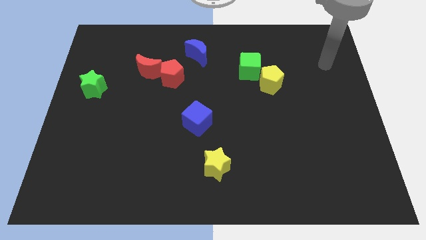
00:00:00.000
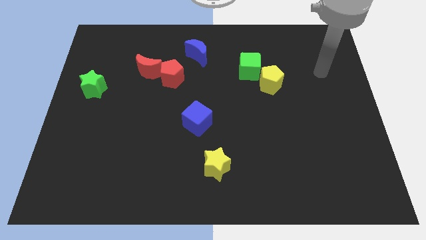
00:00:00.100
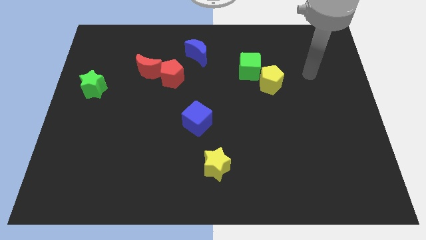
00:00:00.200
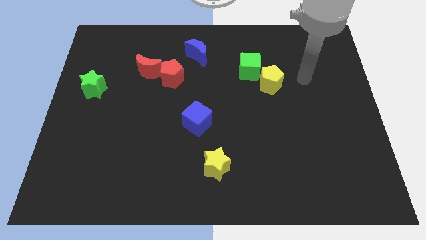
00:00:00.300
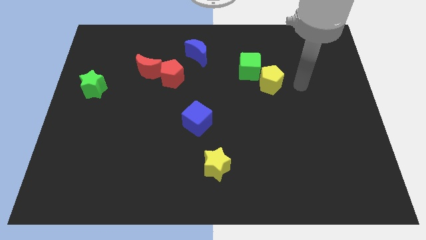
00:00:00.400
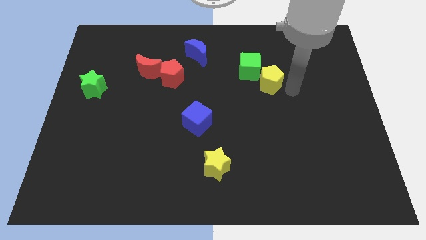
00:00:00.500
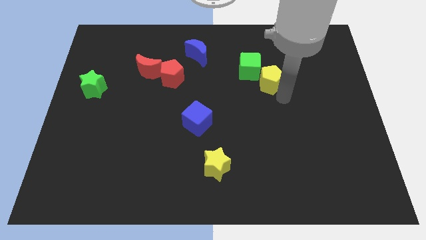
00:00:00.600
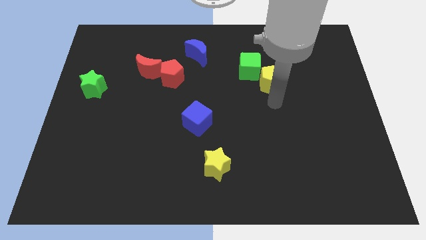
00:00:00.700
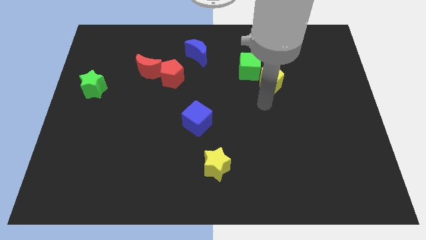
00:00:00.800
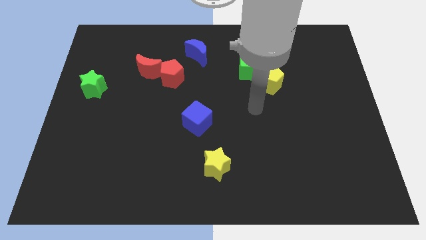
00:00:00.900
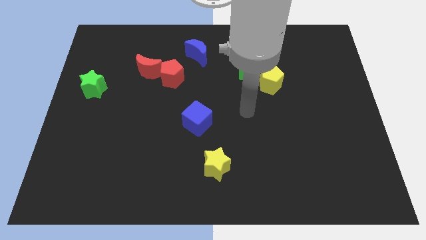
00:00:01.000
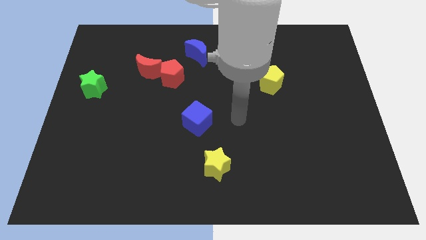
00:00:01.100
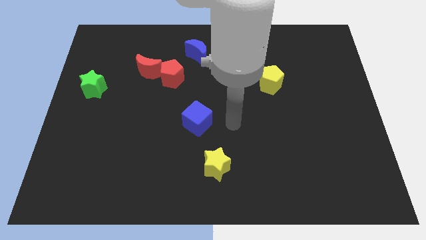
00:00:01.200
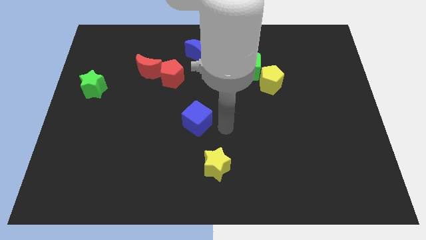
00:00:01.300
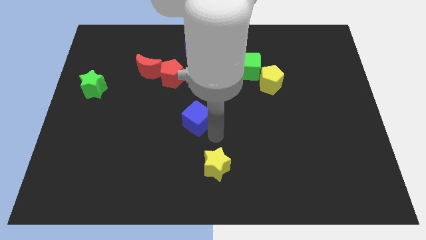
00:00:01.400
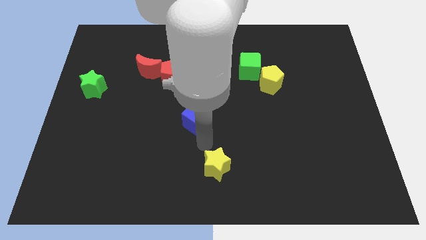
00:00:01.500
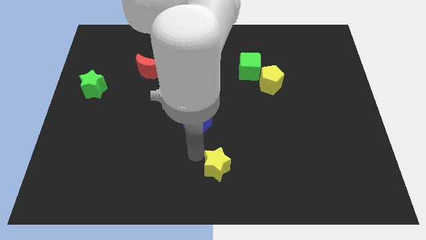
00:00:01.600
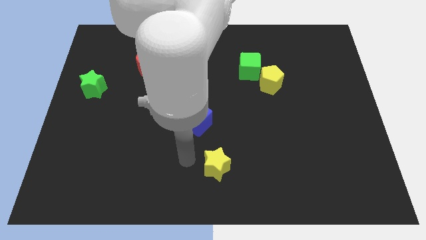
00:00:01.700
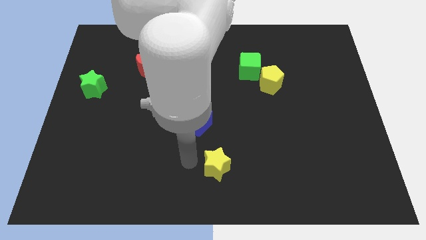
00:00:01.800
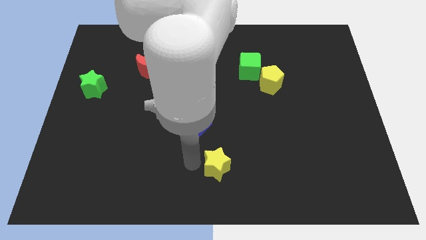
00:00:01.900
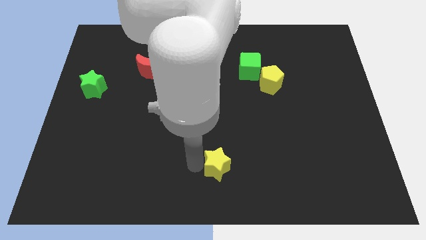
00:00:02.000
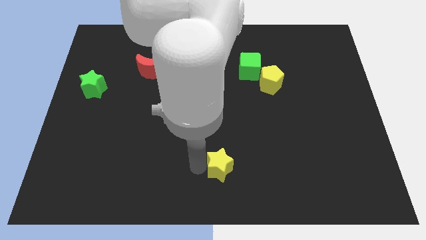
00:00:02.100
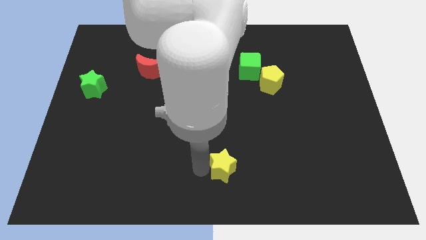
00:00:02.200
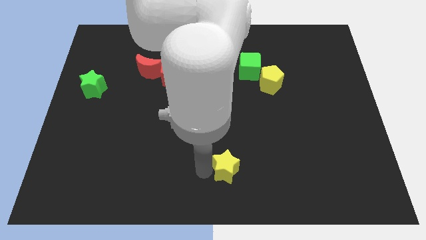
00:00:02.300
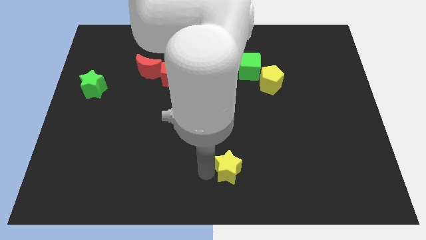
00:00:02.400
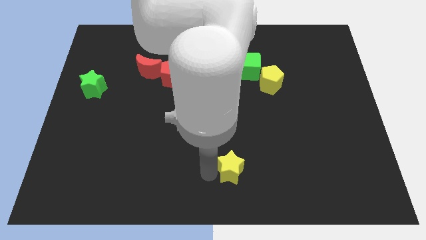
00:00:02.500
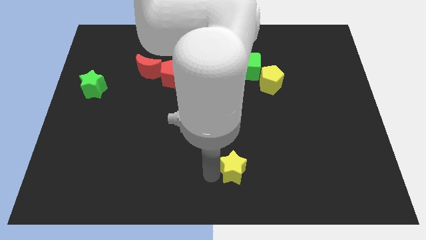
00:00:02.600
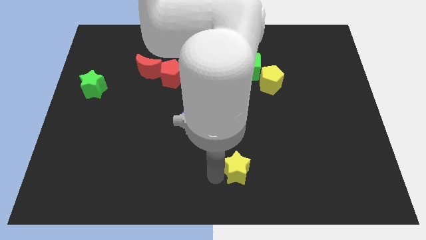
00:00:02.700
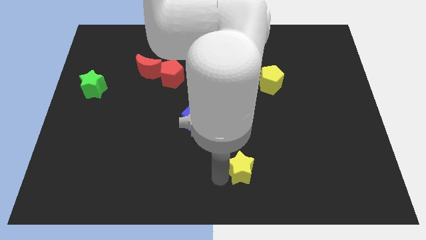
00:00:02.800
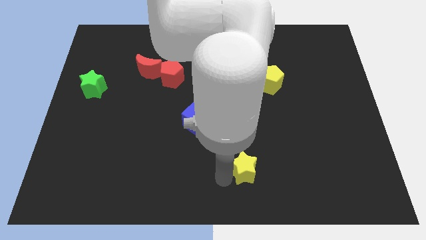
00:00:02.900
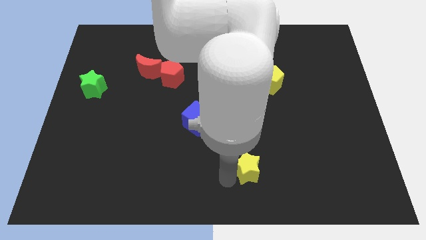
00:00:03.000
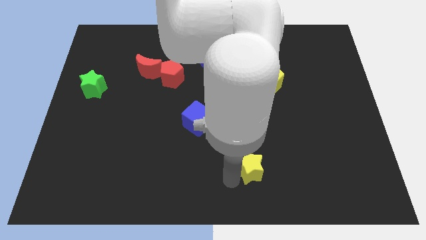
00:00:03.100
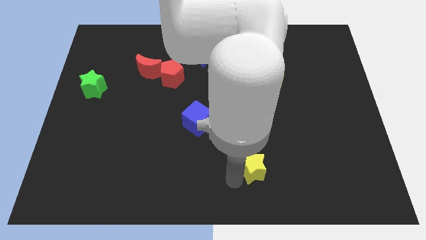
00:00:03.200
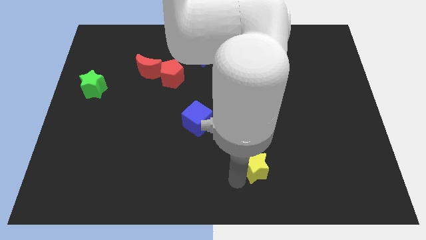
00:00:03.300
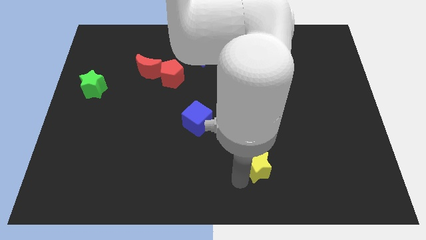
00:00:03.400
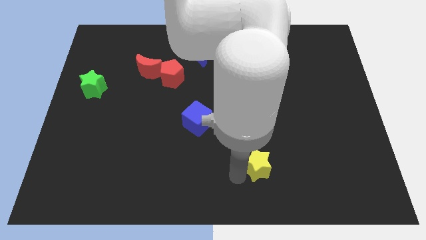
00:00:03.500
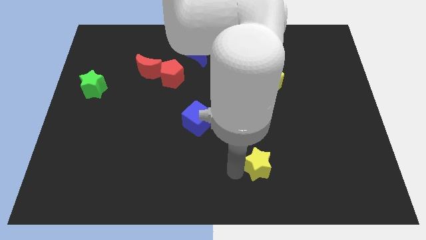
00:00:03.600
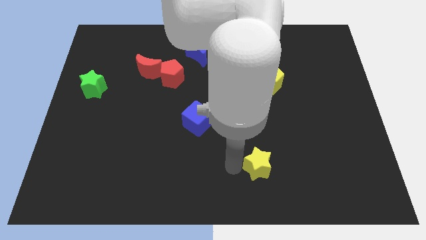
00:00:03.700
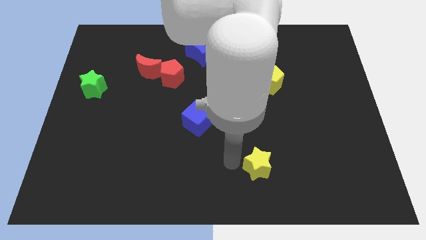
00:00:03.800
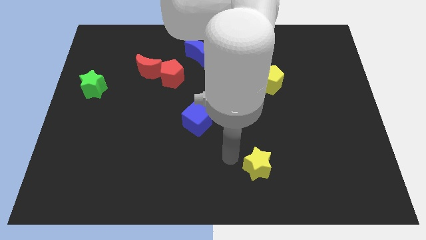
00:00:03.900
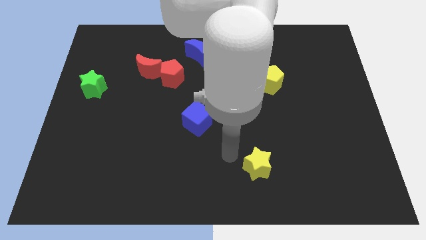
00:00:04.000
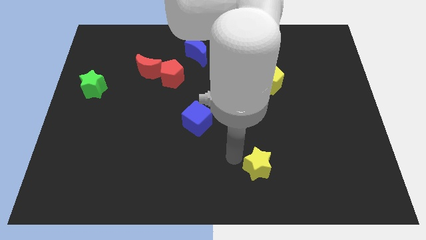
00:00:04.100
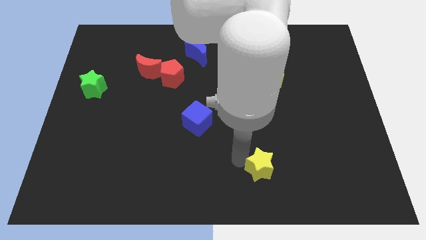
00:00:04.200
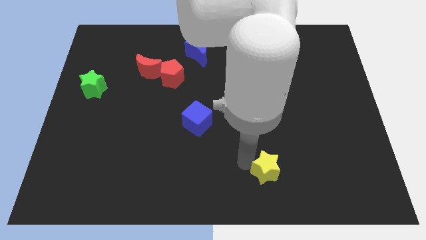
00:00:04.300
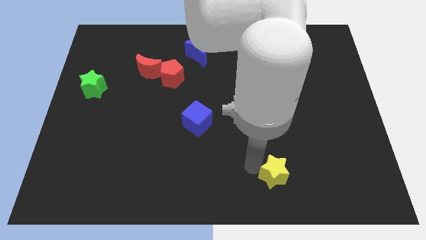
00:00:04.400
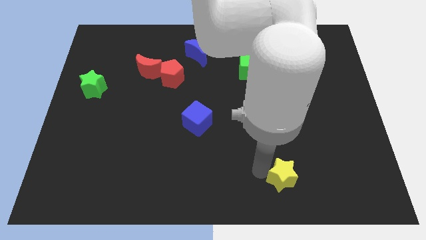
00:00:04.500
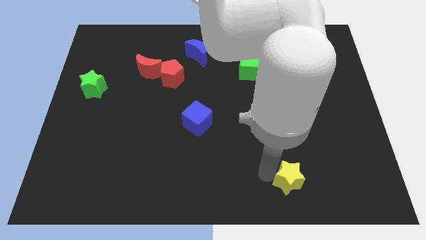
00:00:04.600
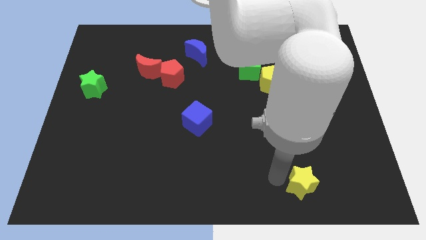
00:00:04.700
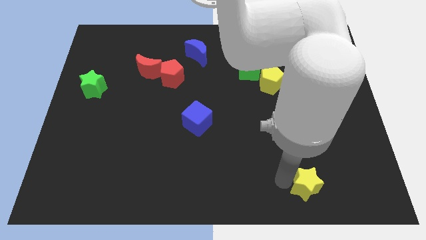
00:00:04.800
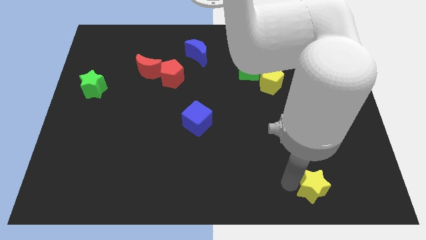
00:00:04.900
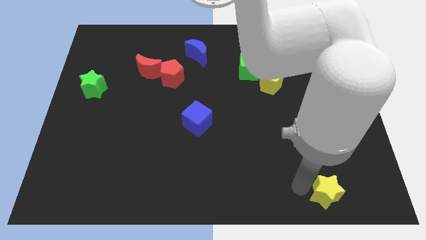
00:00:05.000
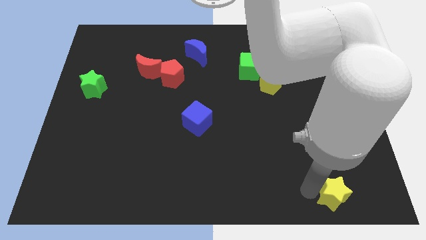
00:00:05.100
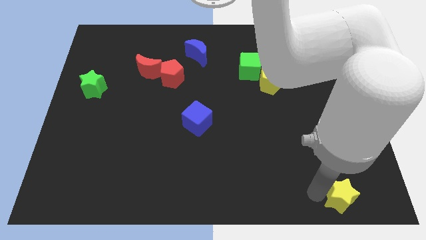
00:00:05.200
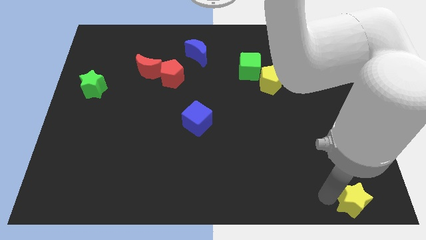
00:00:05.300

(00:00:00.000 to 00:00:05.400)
put the yellow star to the lower right corner

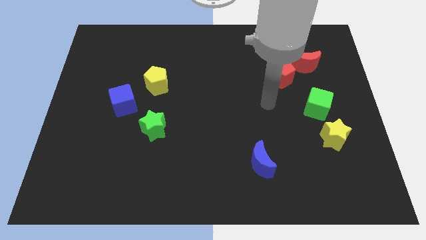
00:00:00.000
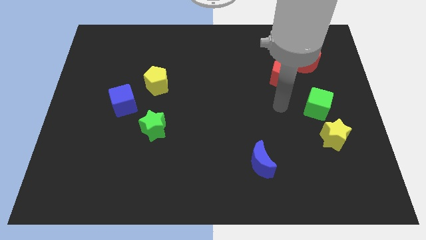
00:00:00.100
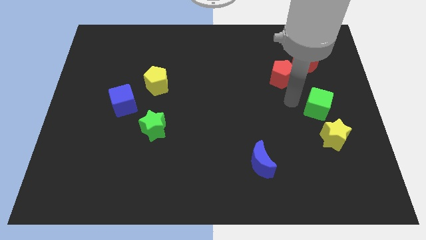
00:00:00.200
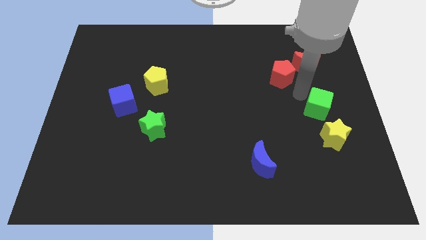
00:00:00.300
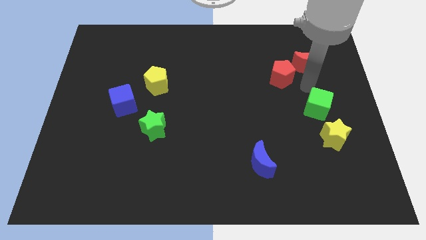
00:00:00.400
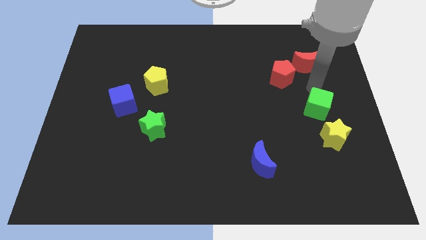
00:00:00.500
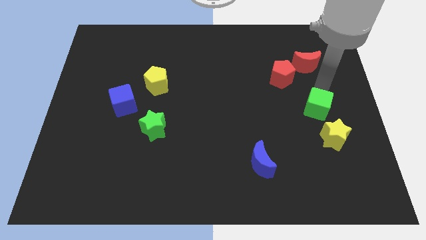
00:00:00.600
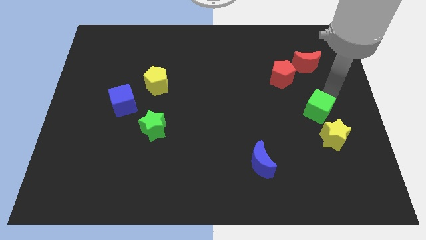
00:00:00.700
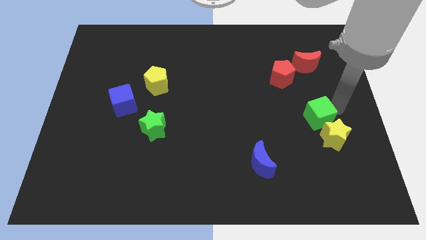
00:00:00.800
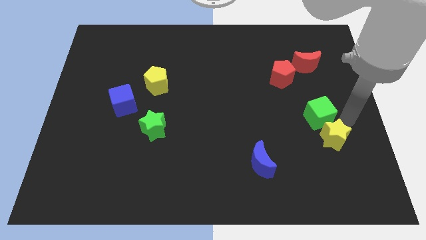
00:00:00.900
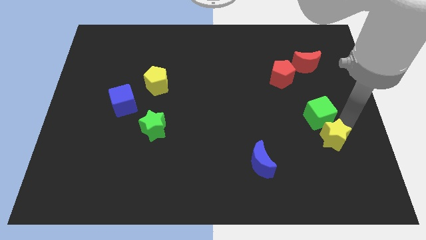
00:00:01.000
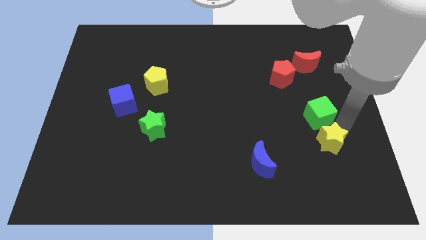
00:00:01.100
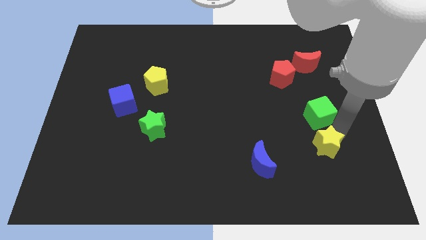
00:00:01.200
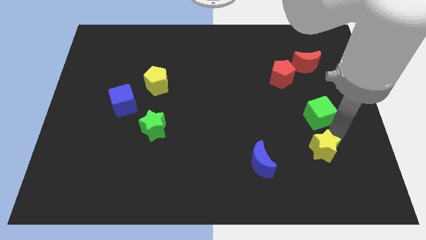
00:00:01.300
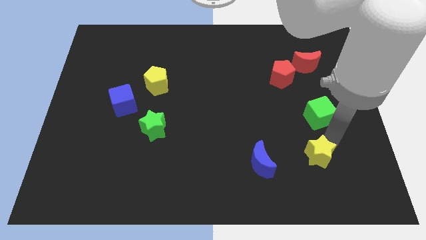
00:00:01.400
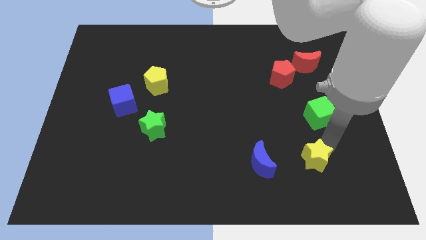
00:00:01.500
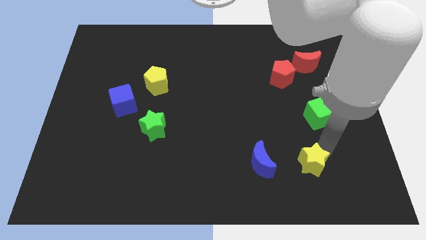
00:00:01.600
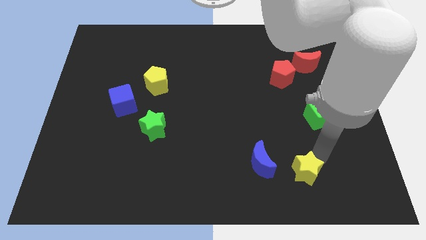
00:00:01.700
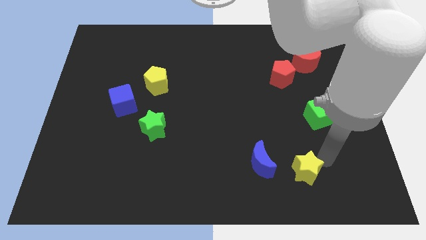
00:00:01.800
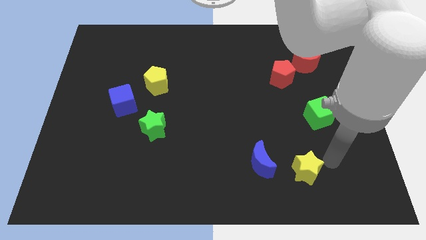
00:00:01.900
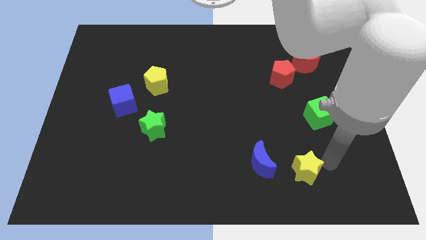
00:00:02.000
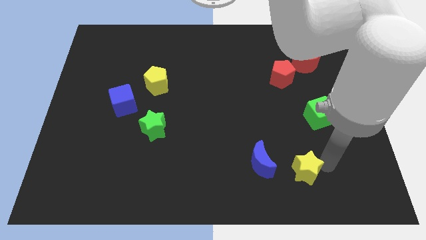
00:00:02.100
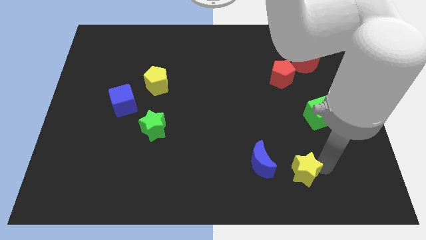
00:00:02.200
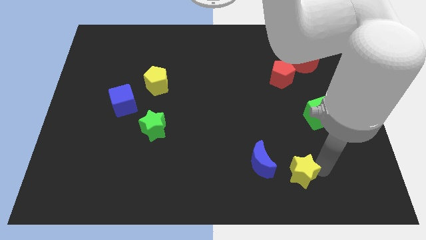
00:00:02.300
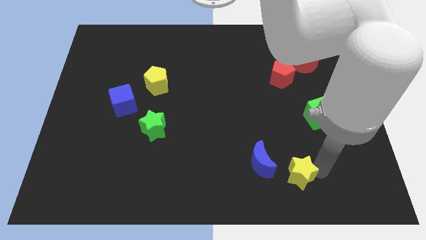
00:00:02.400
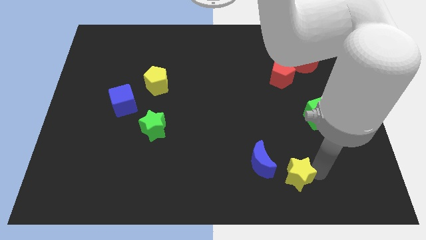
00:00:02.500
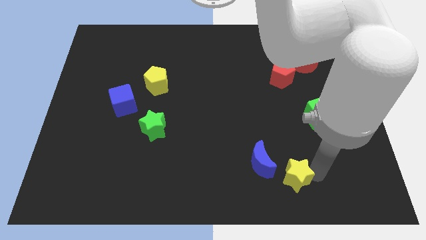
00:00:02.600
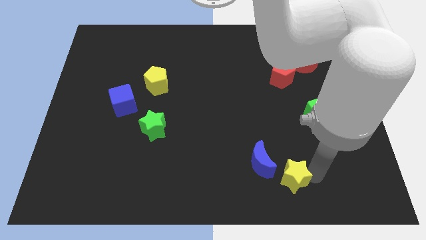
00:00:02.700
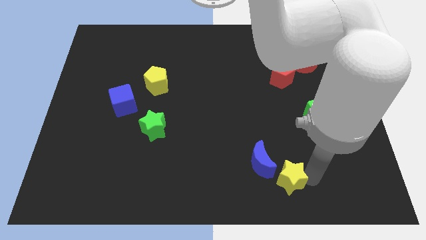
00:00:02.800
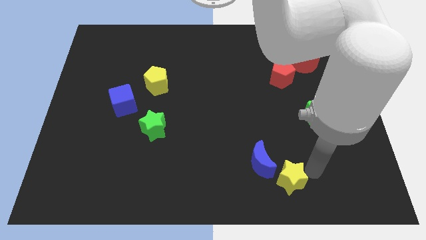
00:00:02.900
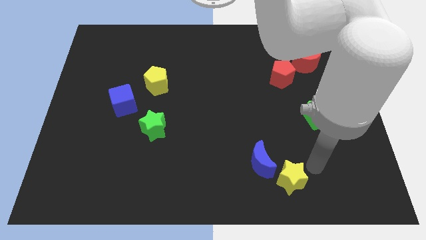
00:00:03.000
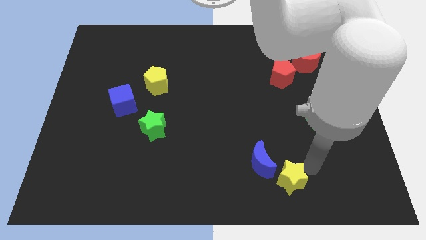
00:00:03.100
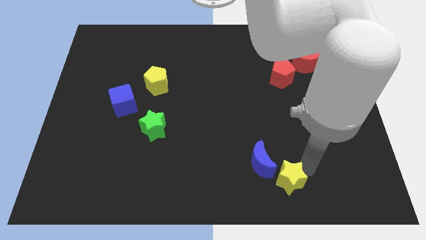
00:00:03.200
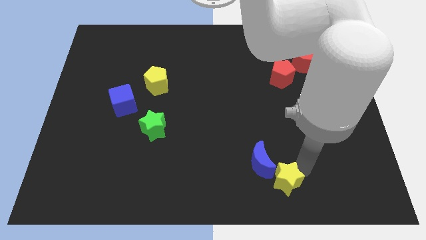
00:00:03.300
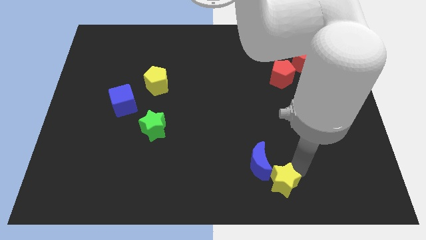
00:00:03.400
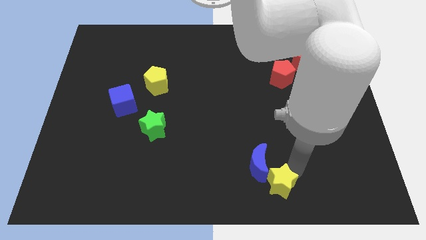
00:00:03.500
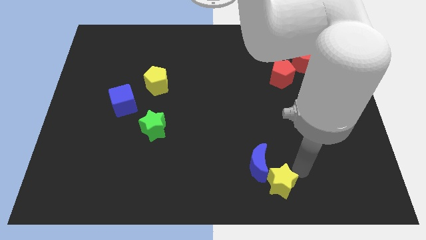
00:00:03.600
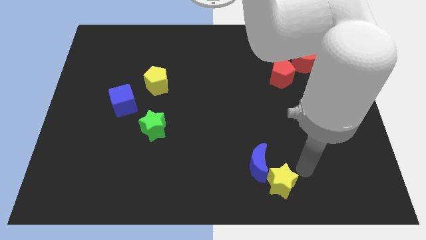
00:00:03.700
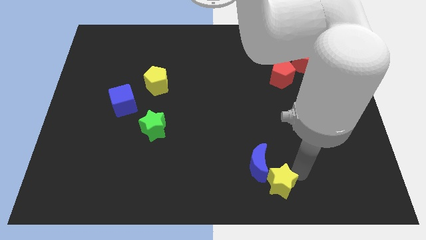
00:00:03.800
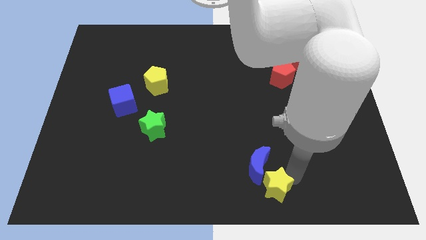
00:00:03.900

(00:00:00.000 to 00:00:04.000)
push the yellow star to the bottom
